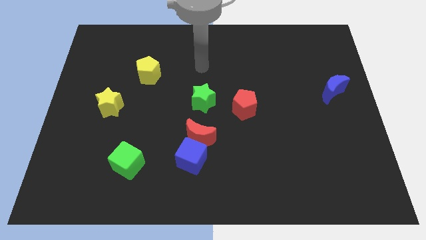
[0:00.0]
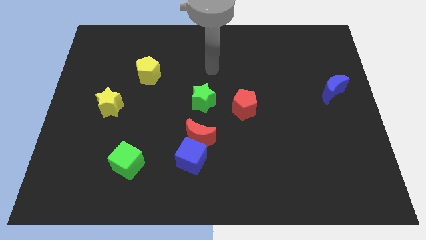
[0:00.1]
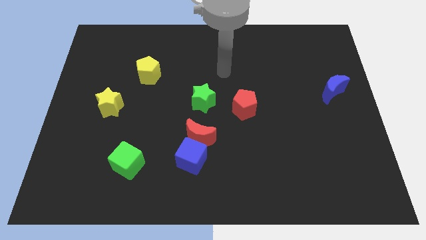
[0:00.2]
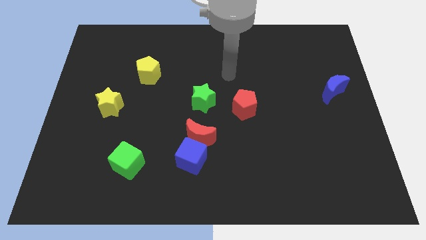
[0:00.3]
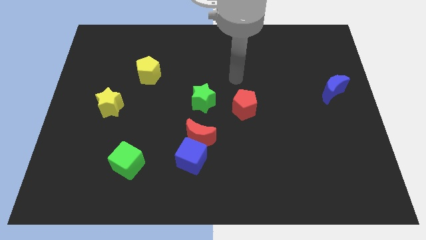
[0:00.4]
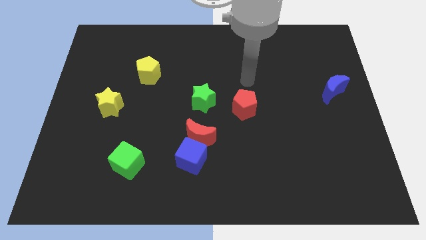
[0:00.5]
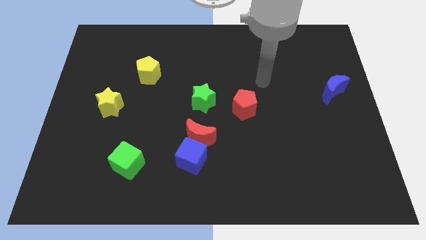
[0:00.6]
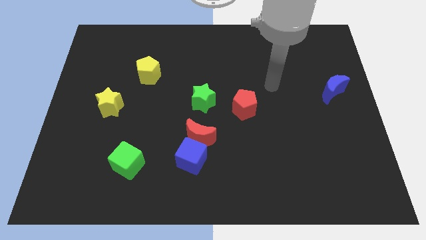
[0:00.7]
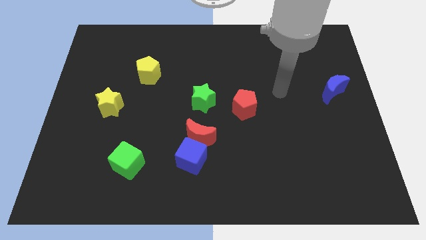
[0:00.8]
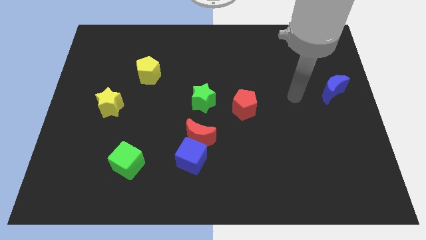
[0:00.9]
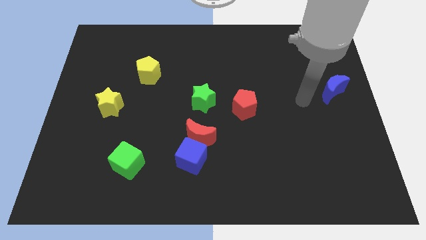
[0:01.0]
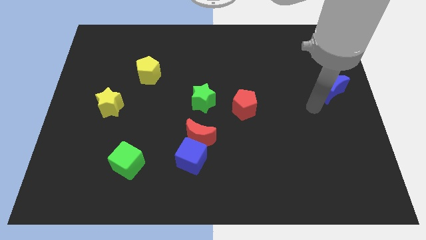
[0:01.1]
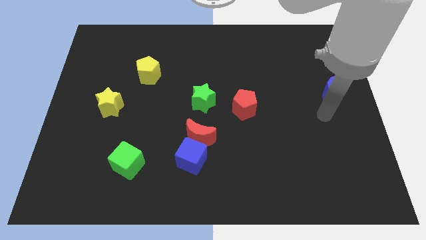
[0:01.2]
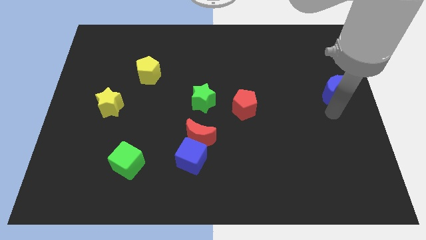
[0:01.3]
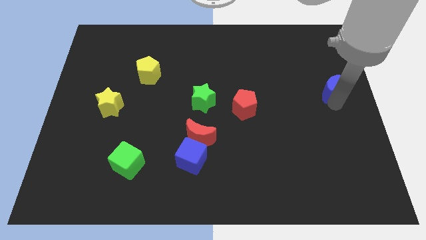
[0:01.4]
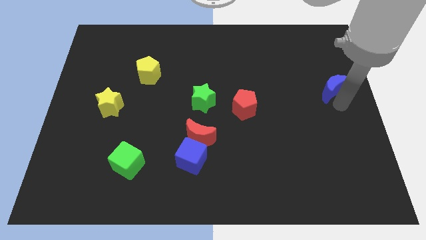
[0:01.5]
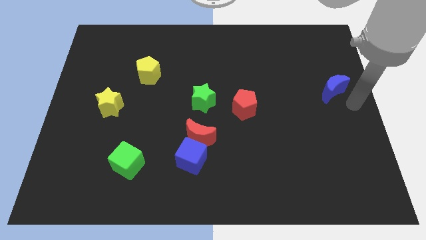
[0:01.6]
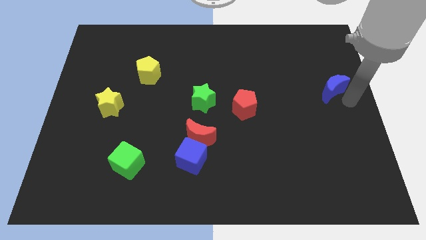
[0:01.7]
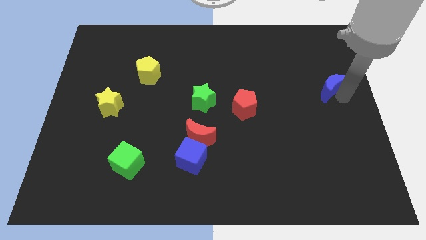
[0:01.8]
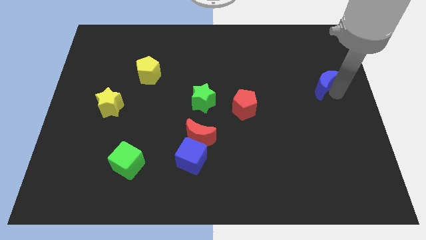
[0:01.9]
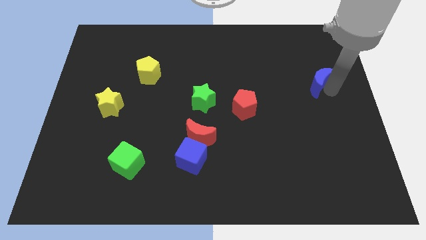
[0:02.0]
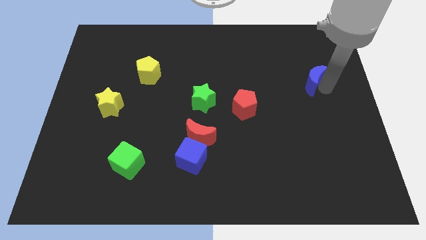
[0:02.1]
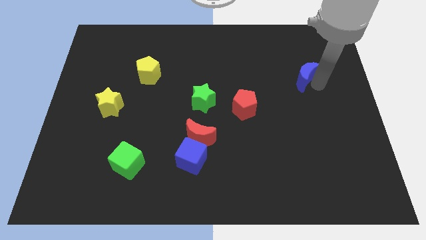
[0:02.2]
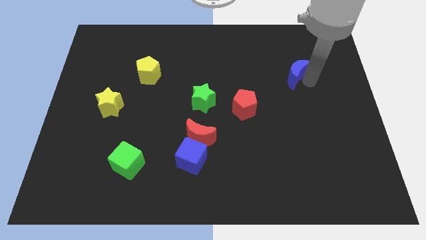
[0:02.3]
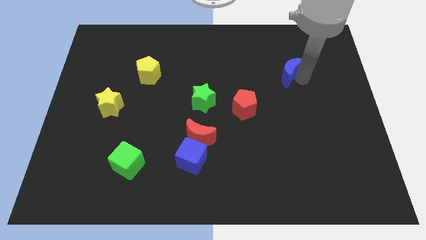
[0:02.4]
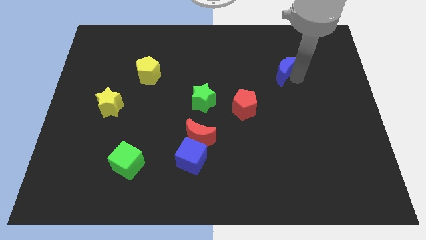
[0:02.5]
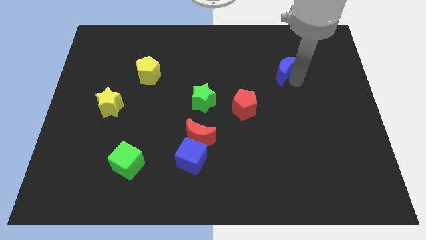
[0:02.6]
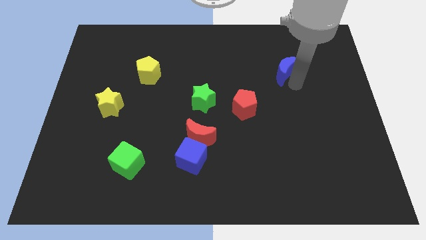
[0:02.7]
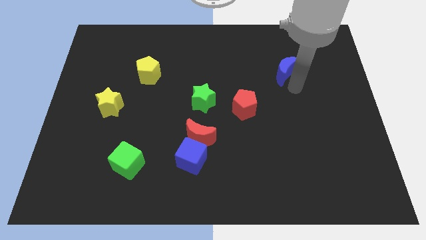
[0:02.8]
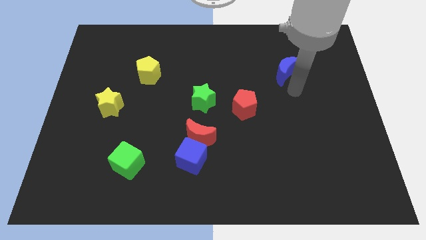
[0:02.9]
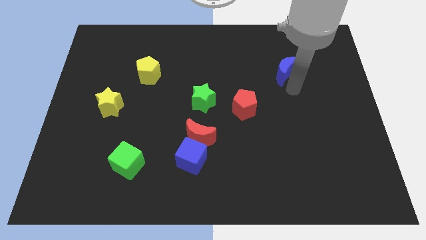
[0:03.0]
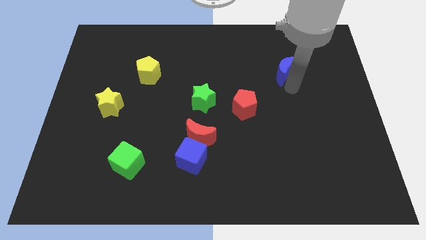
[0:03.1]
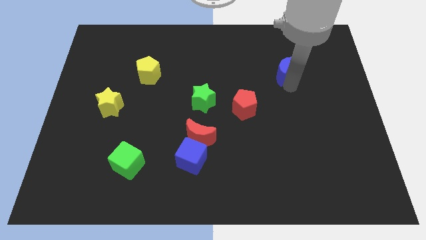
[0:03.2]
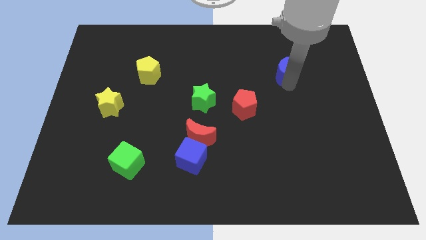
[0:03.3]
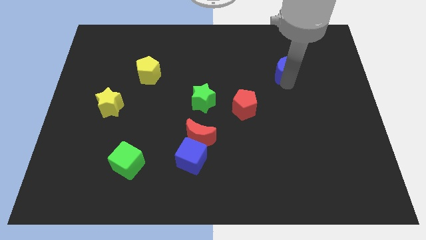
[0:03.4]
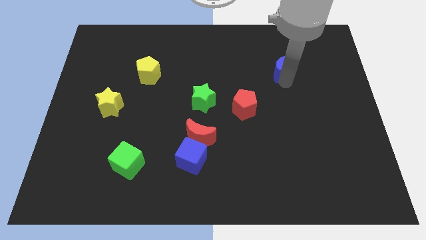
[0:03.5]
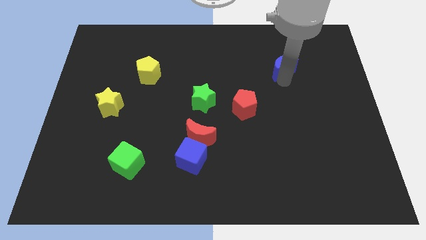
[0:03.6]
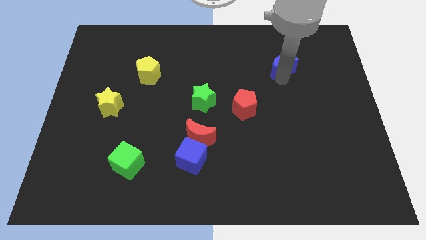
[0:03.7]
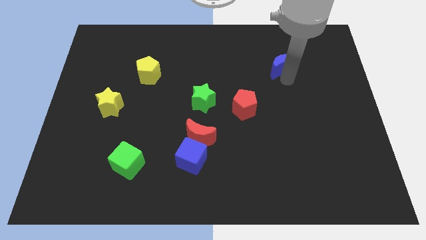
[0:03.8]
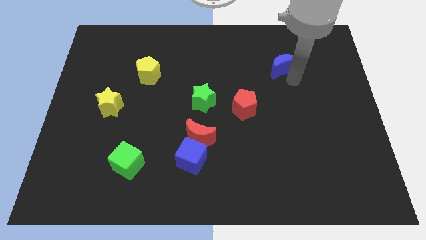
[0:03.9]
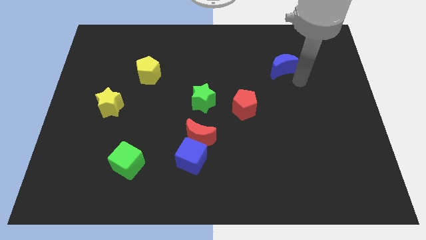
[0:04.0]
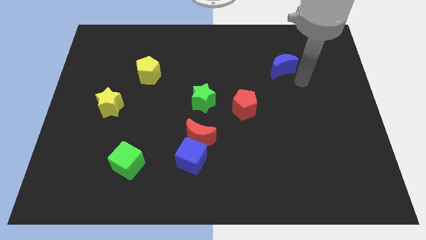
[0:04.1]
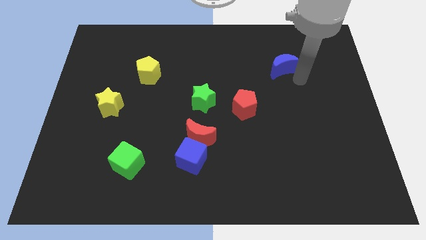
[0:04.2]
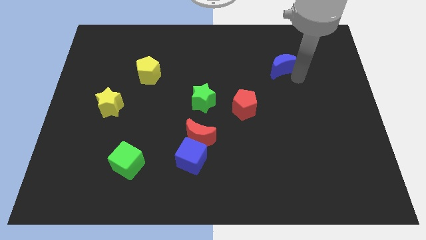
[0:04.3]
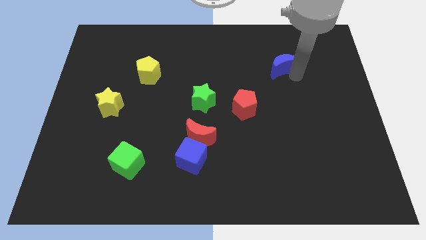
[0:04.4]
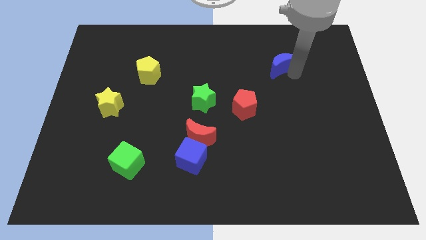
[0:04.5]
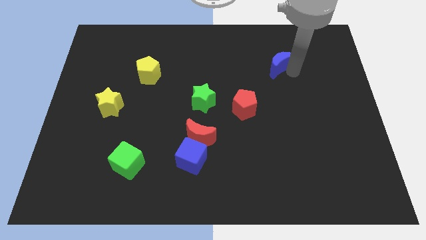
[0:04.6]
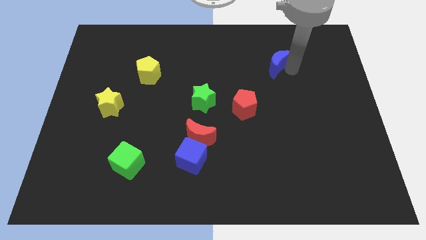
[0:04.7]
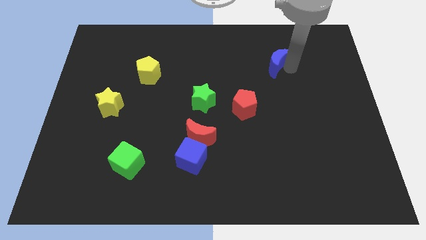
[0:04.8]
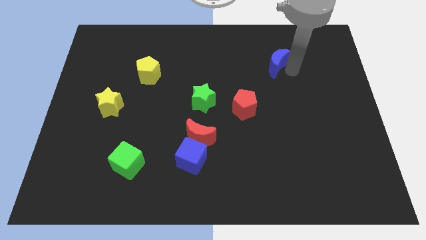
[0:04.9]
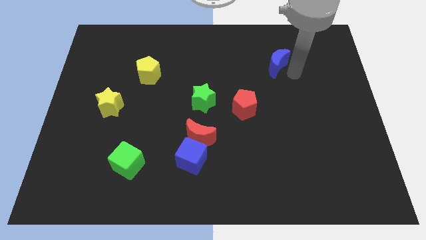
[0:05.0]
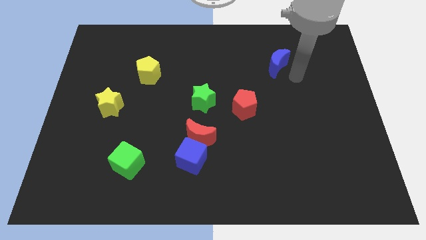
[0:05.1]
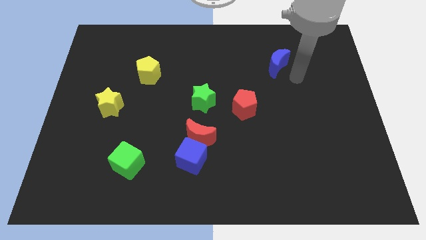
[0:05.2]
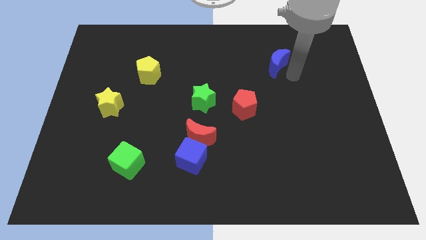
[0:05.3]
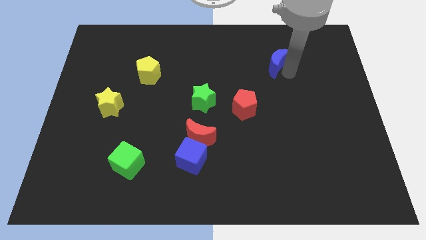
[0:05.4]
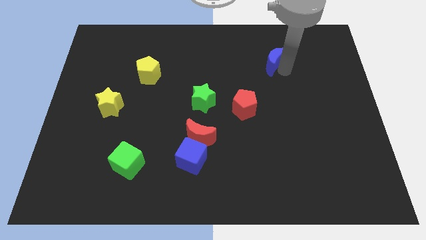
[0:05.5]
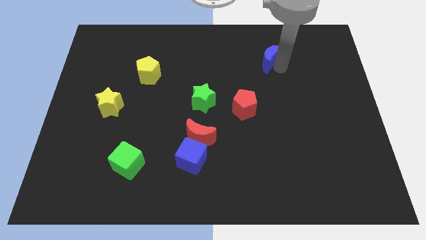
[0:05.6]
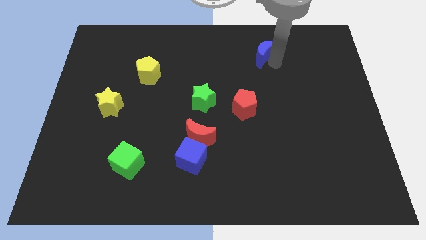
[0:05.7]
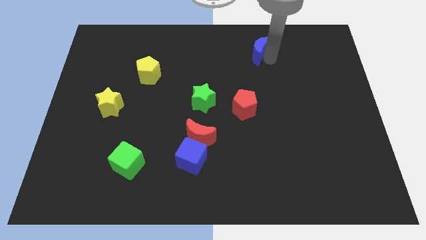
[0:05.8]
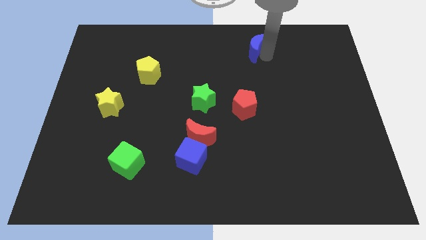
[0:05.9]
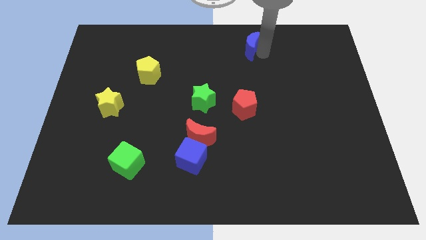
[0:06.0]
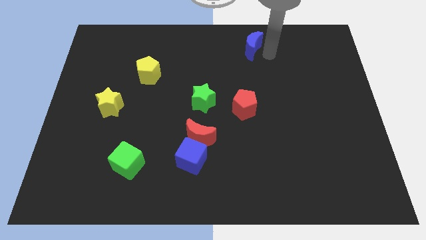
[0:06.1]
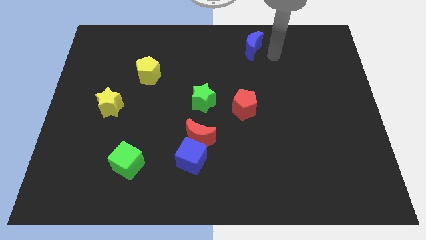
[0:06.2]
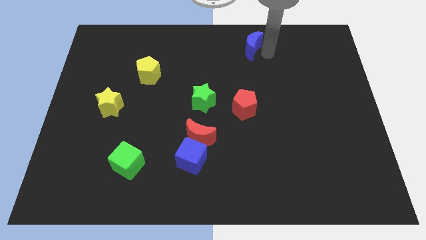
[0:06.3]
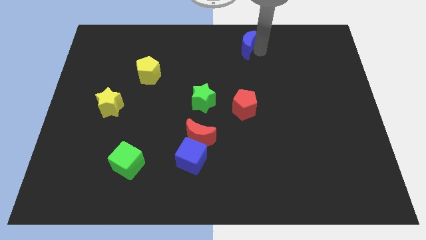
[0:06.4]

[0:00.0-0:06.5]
slide the blue moon to the top
